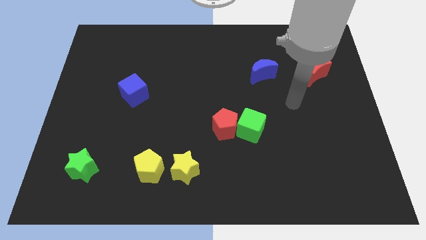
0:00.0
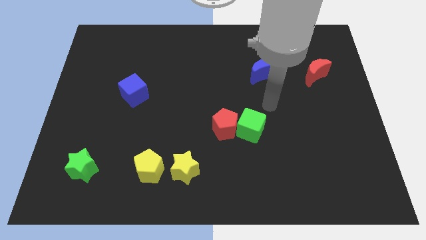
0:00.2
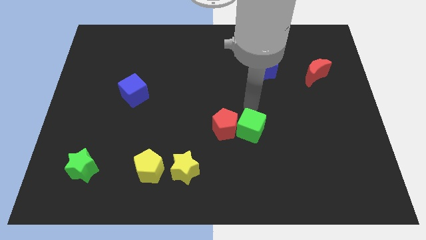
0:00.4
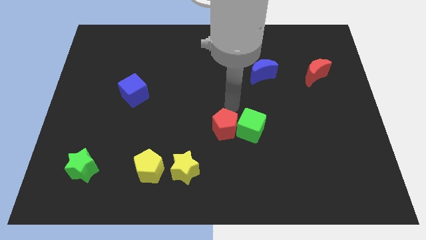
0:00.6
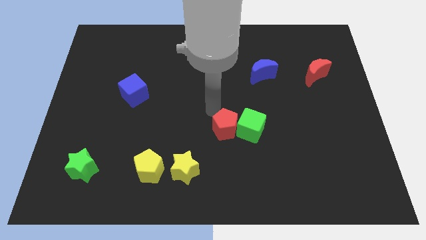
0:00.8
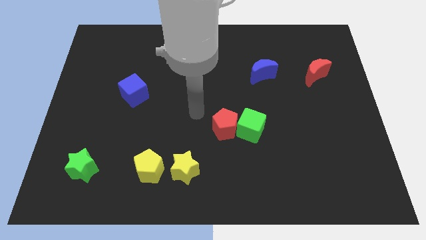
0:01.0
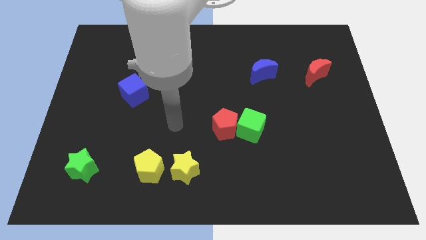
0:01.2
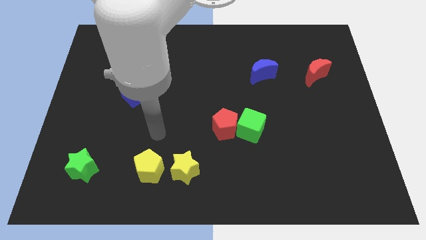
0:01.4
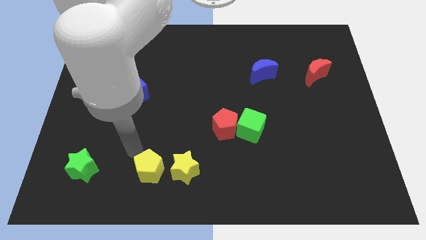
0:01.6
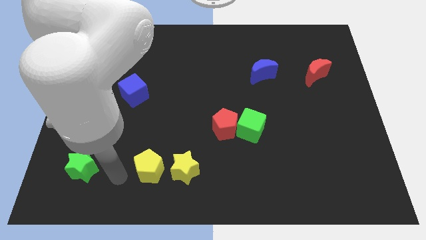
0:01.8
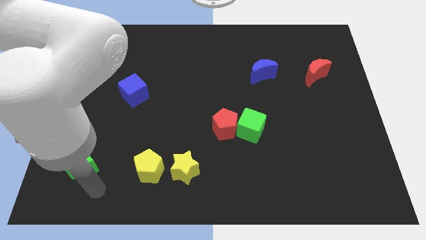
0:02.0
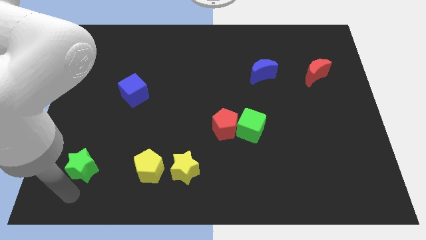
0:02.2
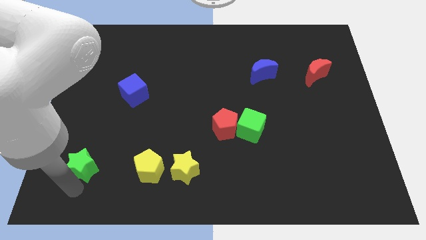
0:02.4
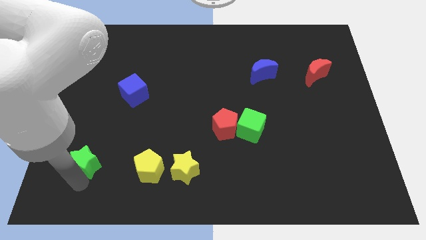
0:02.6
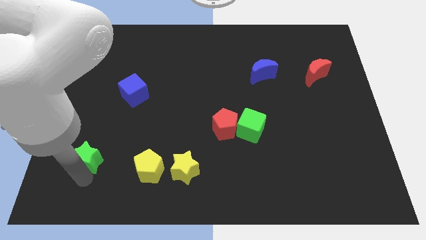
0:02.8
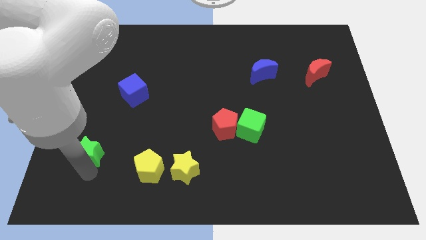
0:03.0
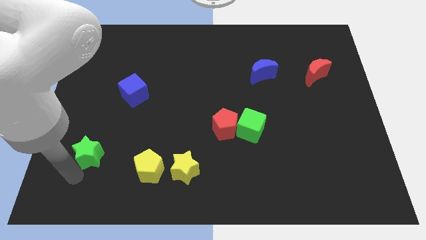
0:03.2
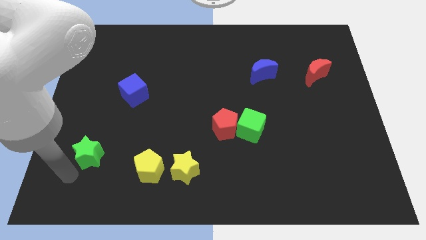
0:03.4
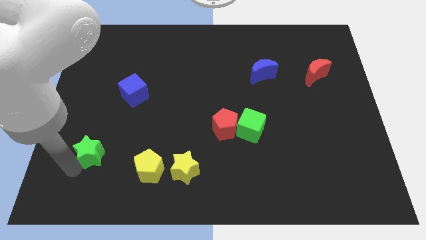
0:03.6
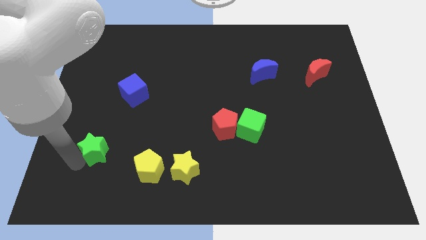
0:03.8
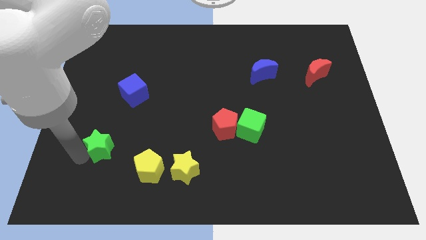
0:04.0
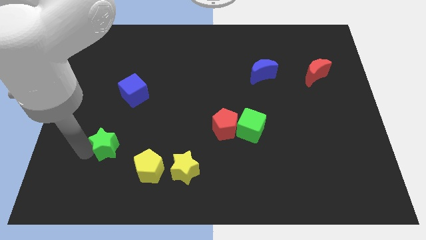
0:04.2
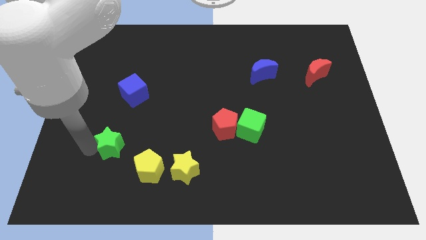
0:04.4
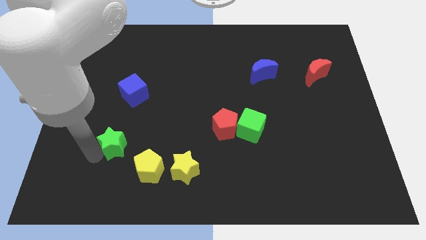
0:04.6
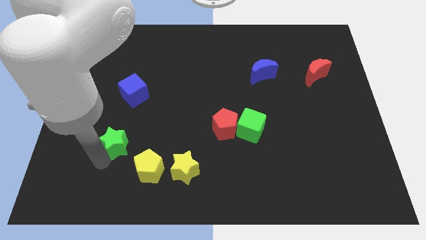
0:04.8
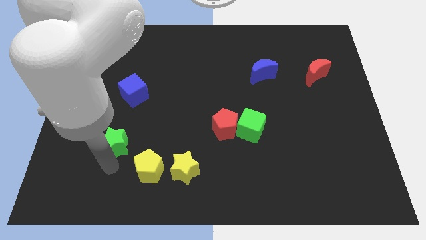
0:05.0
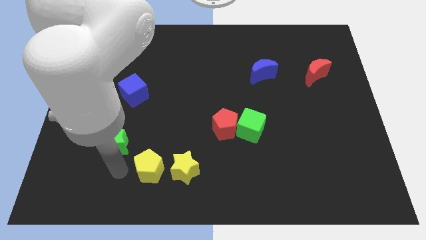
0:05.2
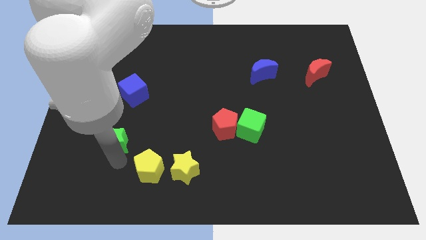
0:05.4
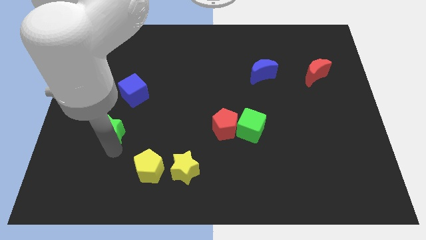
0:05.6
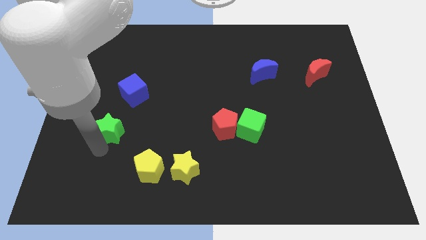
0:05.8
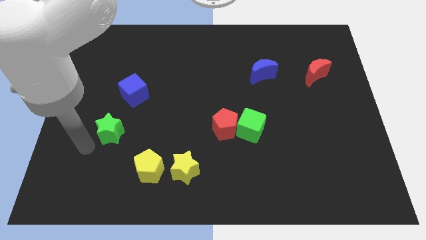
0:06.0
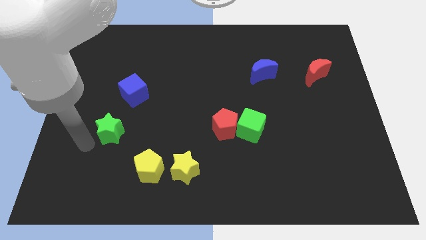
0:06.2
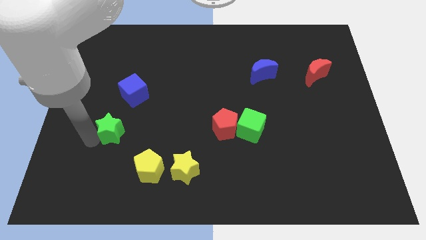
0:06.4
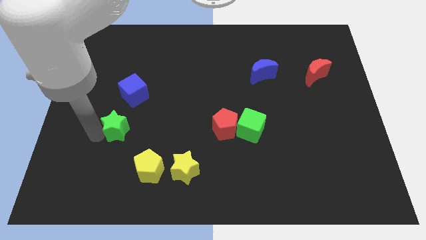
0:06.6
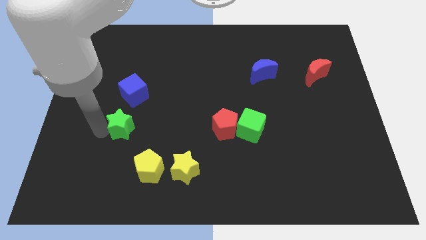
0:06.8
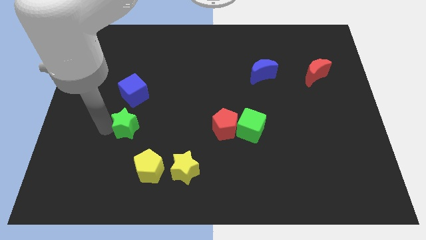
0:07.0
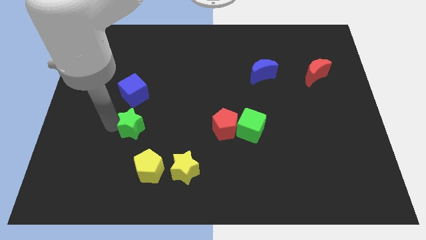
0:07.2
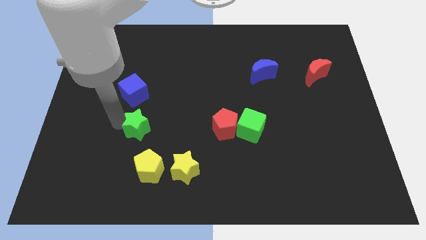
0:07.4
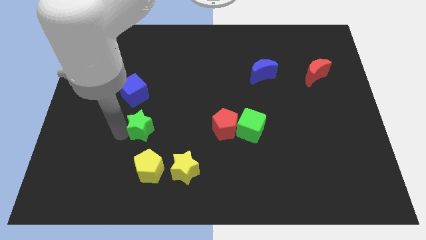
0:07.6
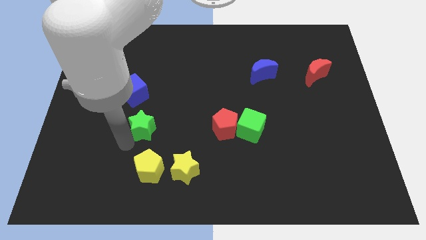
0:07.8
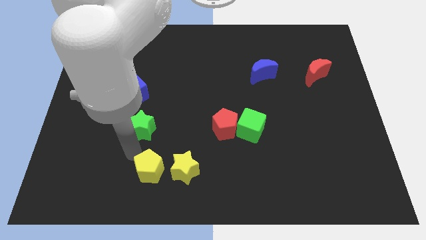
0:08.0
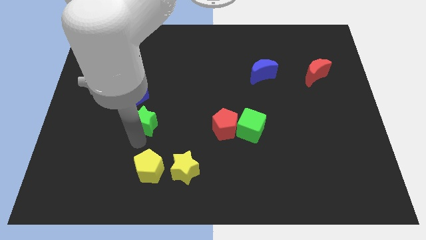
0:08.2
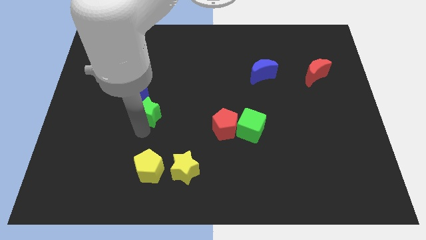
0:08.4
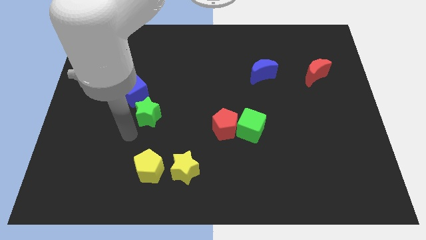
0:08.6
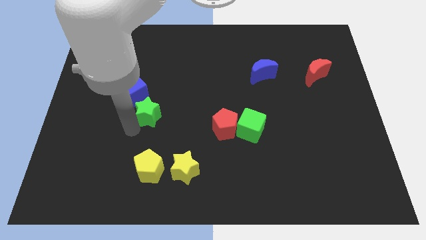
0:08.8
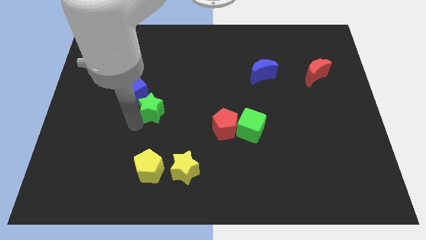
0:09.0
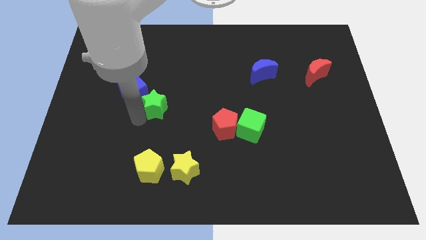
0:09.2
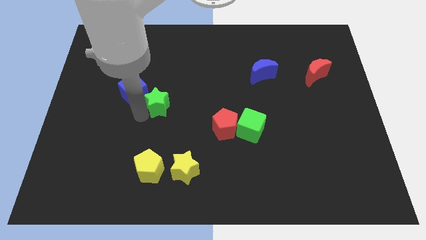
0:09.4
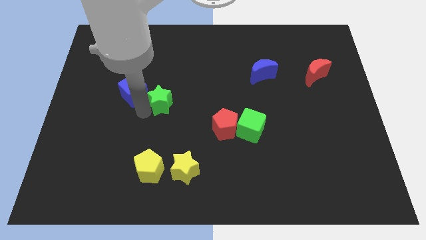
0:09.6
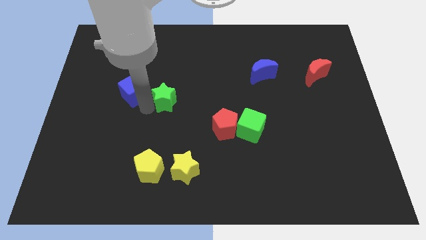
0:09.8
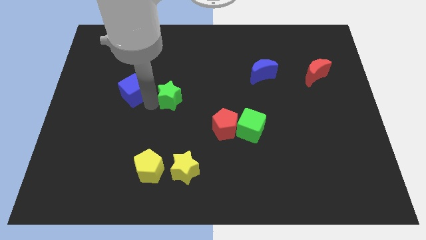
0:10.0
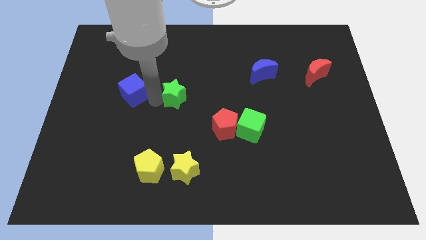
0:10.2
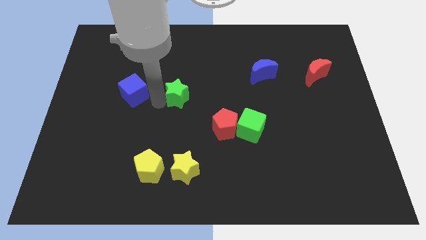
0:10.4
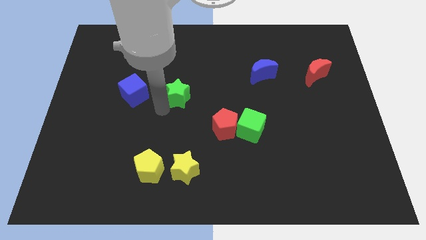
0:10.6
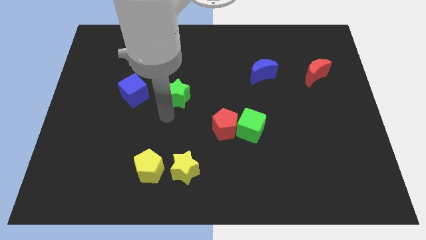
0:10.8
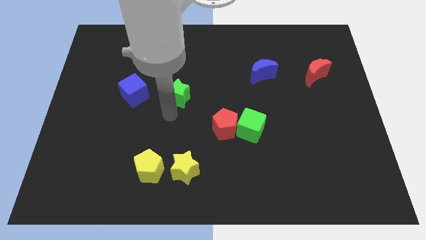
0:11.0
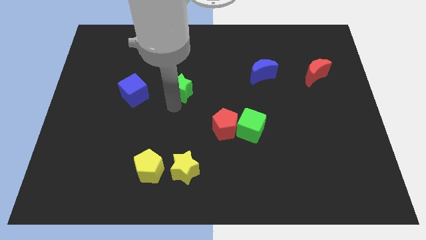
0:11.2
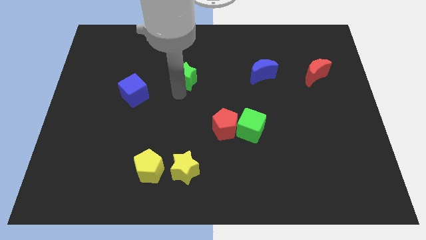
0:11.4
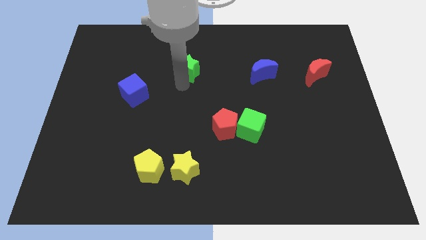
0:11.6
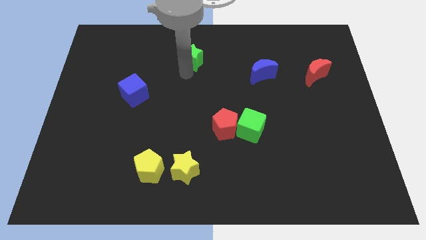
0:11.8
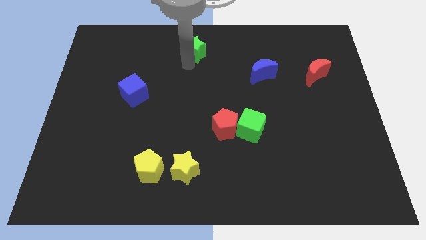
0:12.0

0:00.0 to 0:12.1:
slide the green star to the top side
